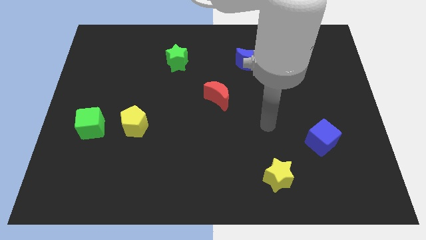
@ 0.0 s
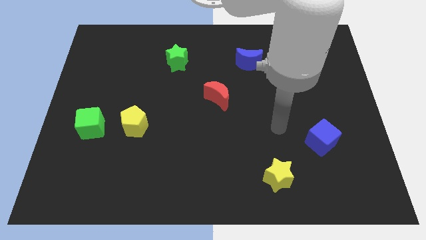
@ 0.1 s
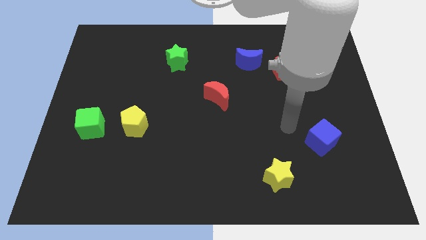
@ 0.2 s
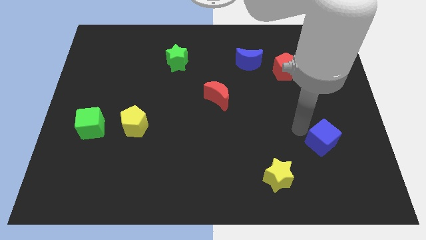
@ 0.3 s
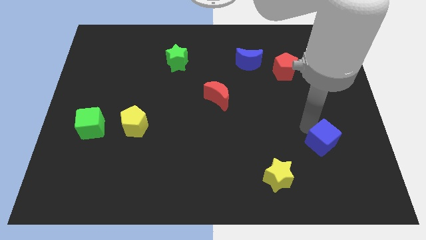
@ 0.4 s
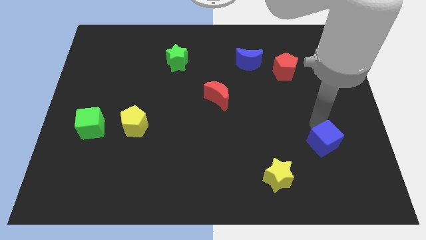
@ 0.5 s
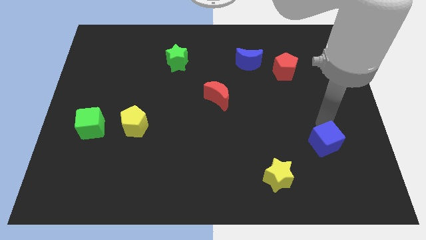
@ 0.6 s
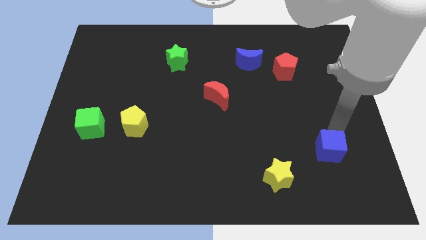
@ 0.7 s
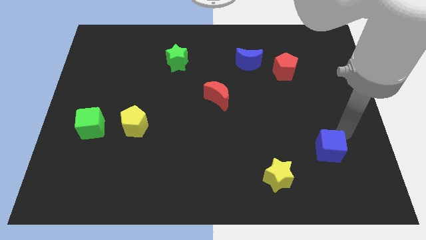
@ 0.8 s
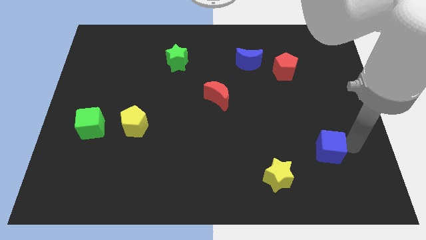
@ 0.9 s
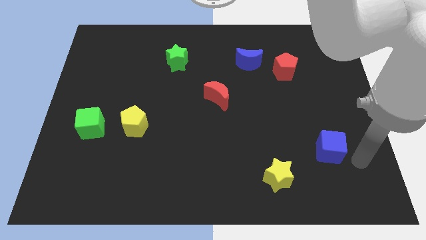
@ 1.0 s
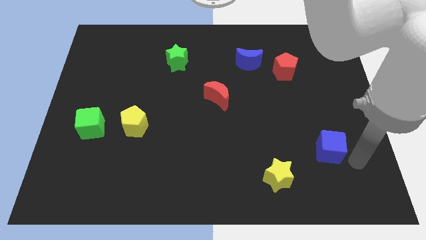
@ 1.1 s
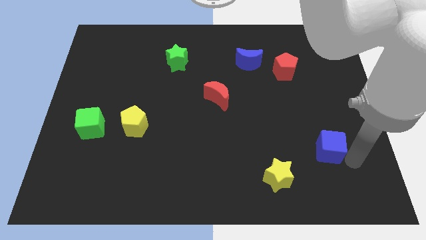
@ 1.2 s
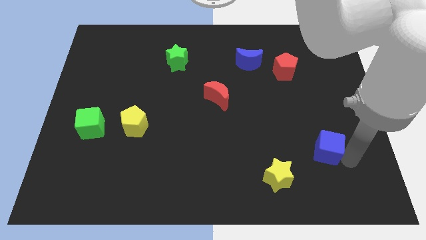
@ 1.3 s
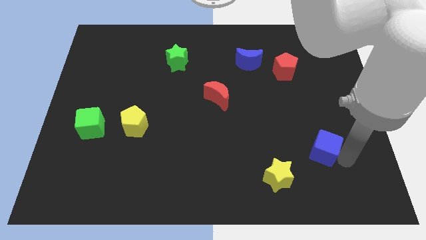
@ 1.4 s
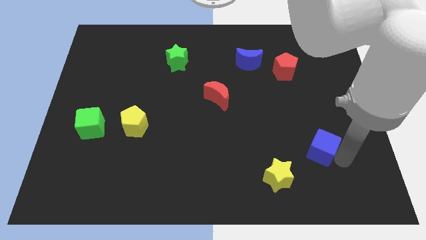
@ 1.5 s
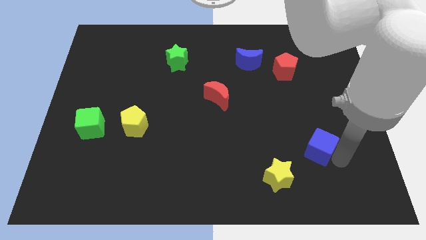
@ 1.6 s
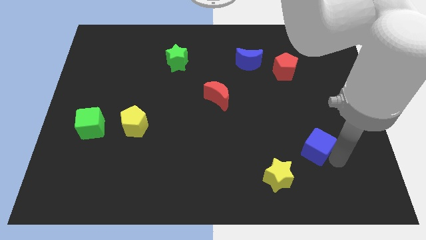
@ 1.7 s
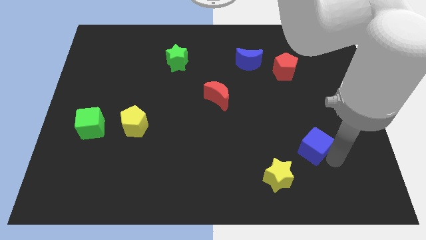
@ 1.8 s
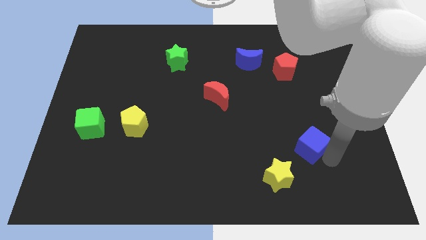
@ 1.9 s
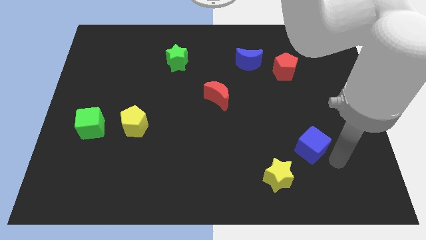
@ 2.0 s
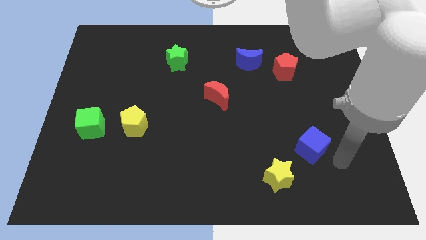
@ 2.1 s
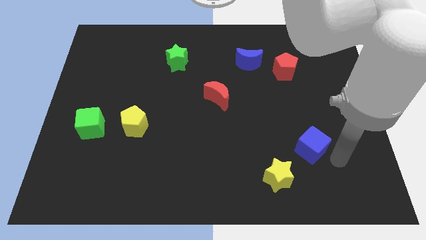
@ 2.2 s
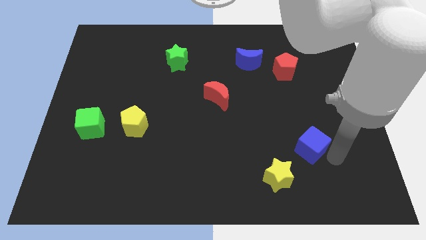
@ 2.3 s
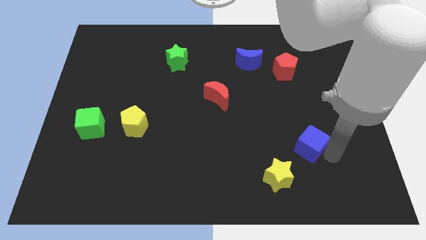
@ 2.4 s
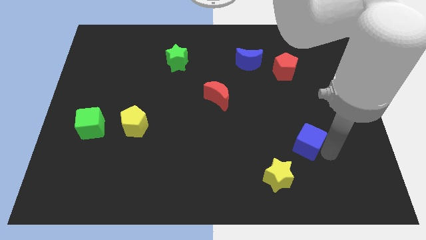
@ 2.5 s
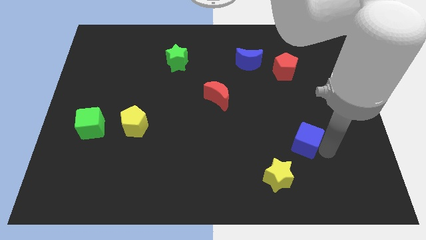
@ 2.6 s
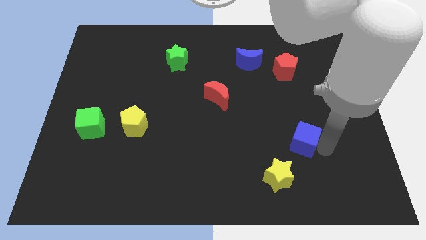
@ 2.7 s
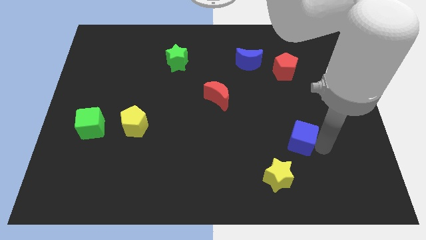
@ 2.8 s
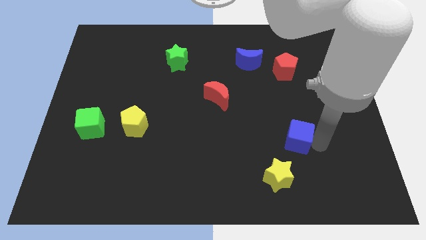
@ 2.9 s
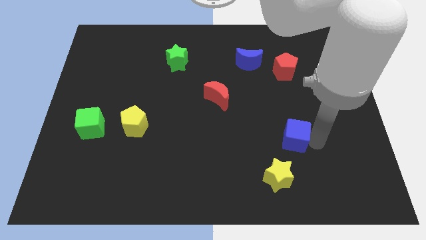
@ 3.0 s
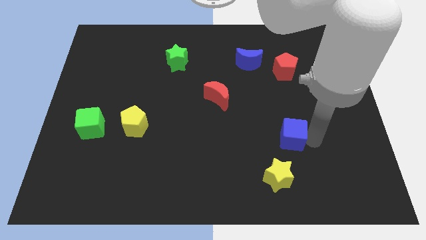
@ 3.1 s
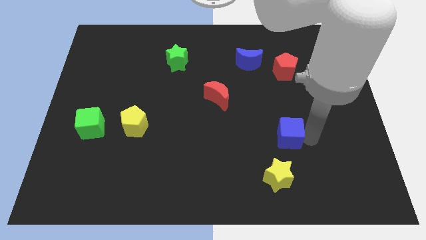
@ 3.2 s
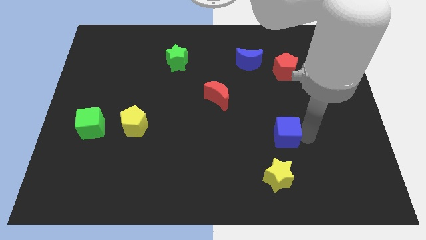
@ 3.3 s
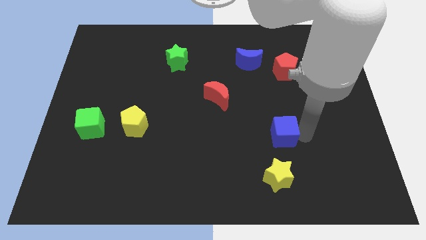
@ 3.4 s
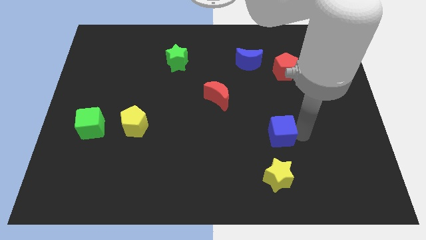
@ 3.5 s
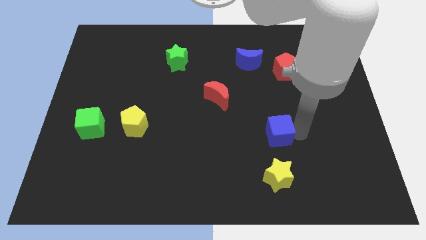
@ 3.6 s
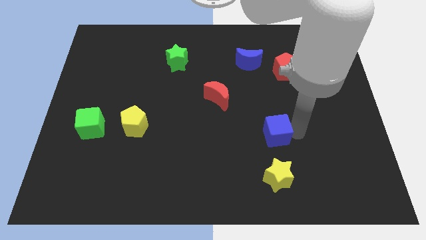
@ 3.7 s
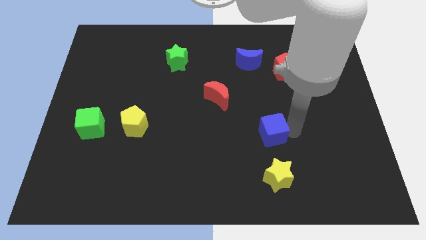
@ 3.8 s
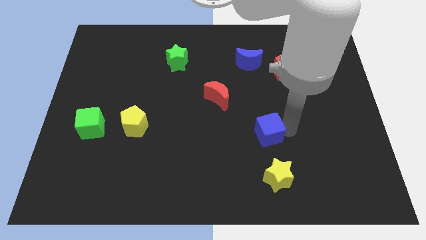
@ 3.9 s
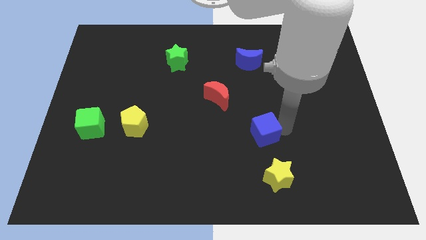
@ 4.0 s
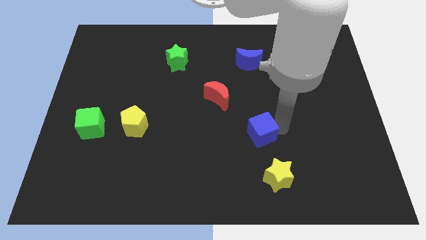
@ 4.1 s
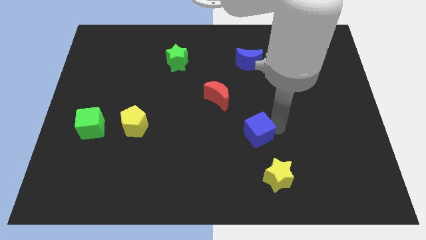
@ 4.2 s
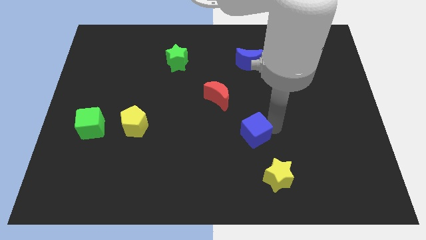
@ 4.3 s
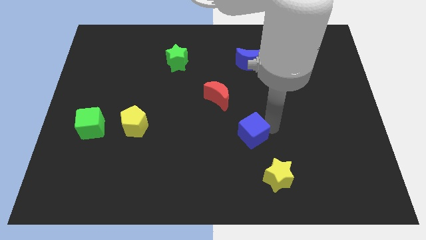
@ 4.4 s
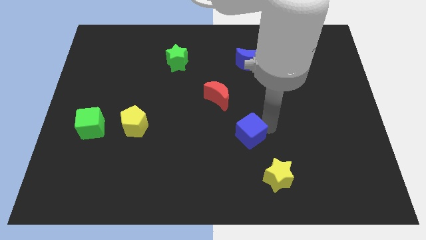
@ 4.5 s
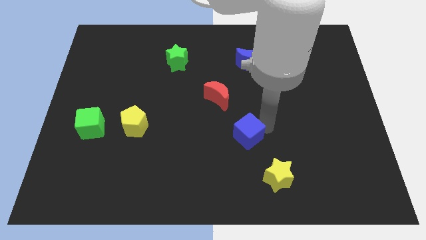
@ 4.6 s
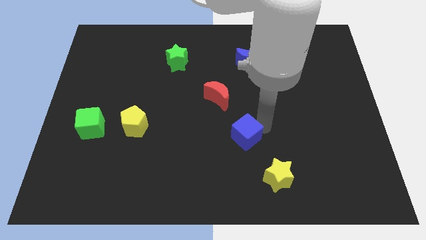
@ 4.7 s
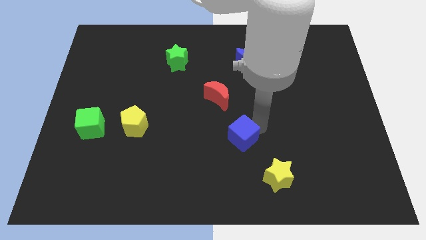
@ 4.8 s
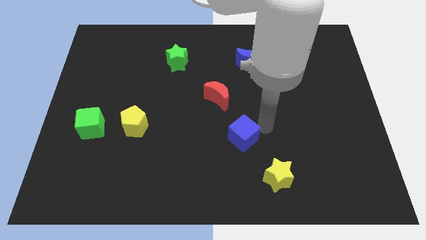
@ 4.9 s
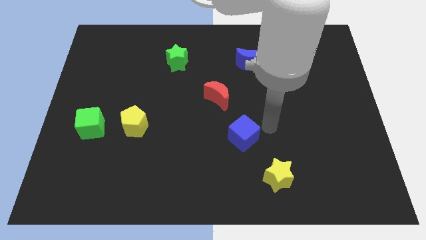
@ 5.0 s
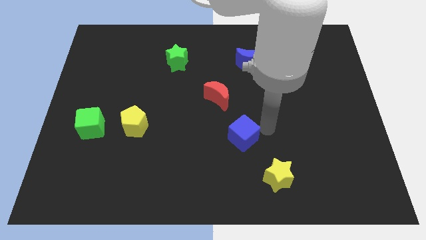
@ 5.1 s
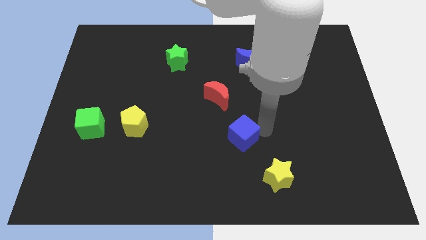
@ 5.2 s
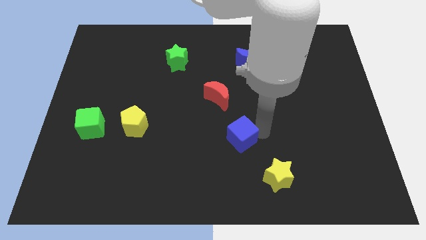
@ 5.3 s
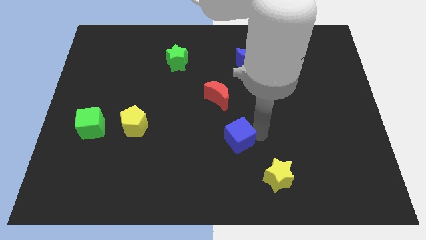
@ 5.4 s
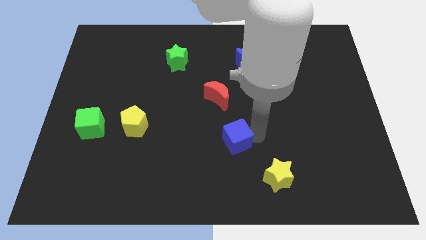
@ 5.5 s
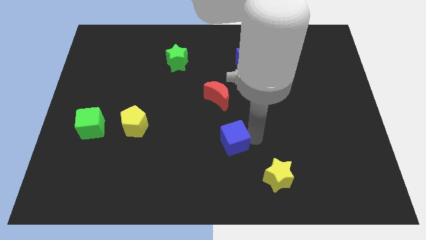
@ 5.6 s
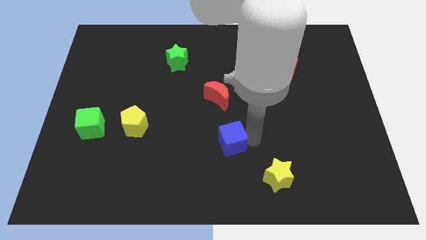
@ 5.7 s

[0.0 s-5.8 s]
push the blue cube left

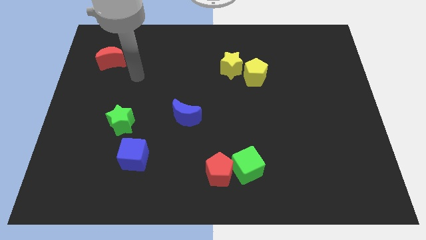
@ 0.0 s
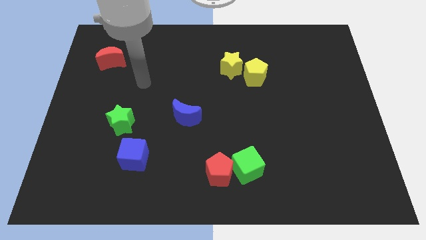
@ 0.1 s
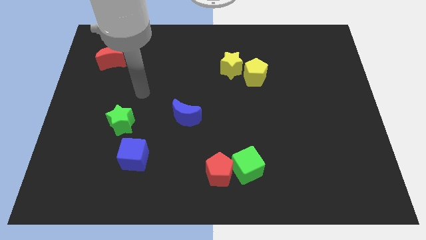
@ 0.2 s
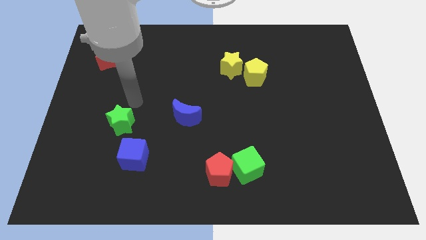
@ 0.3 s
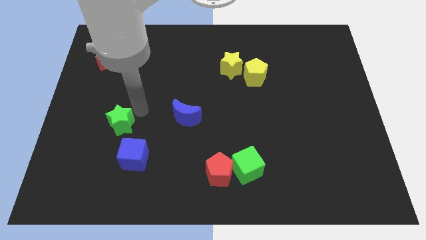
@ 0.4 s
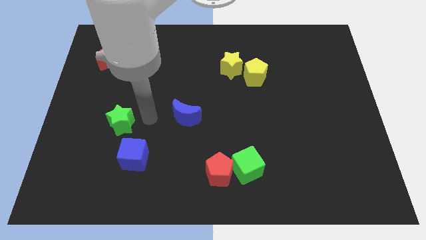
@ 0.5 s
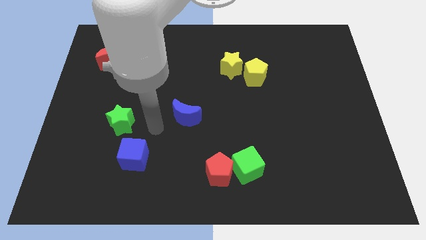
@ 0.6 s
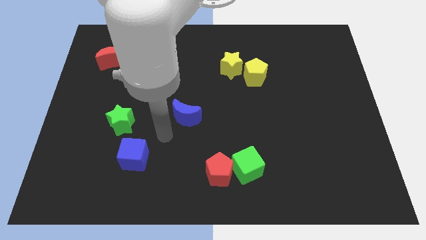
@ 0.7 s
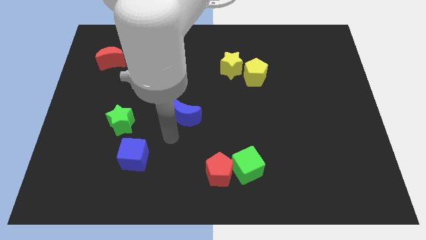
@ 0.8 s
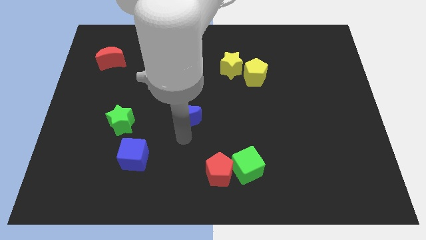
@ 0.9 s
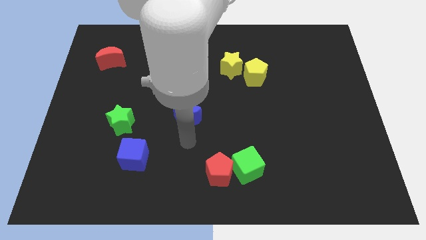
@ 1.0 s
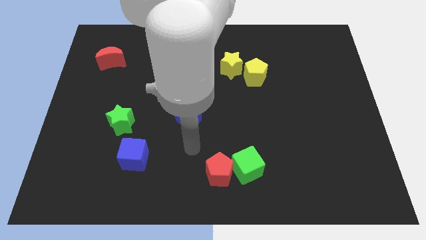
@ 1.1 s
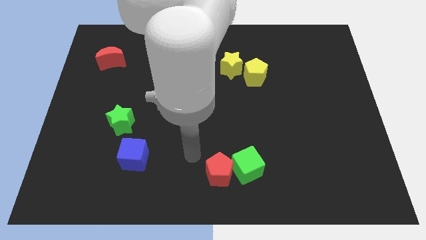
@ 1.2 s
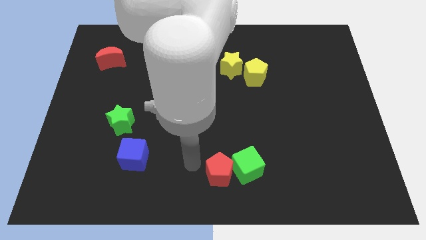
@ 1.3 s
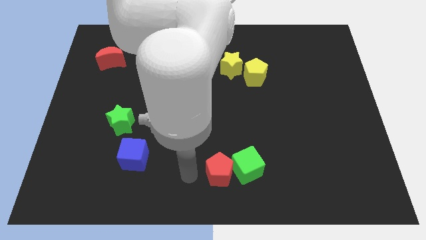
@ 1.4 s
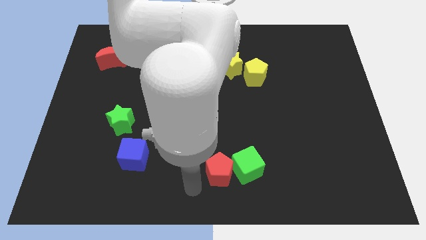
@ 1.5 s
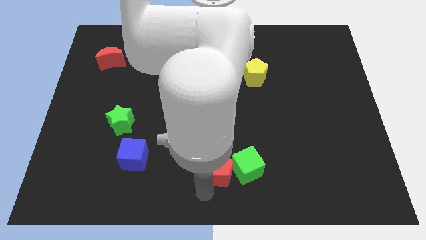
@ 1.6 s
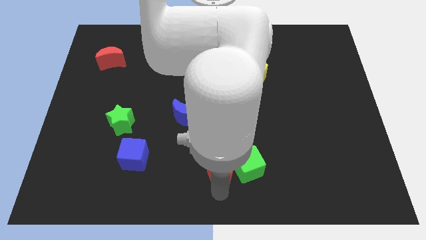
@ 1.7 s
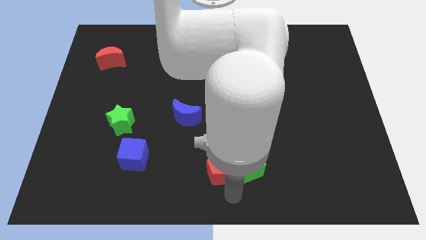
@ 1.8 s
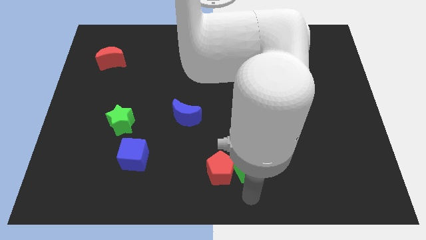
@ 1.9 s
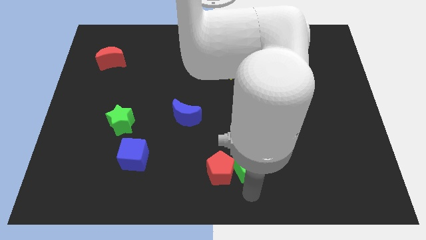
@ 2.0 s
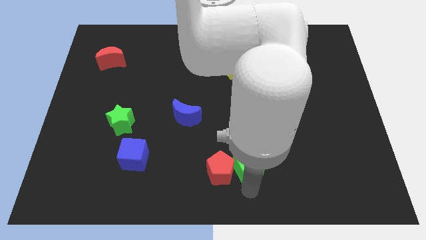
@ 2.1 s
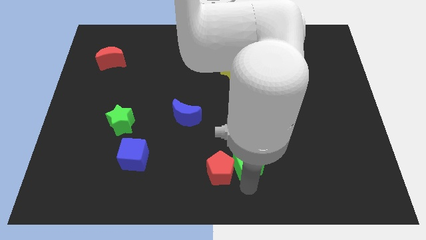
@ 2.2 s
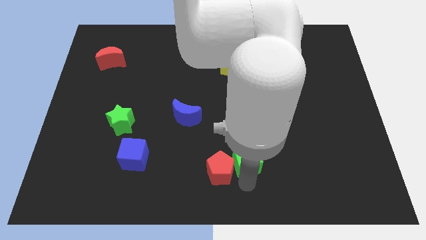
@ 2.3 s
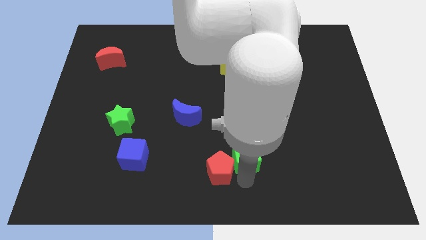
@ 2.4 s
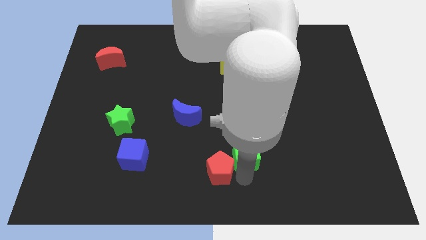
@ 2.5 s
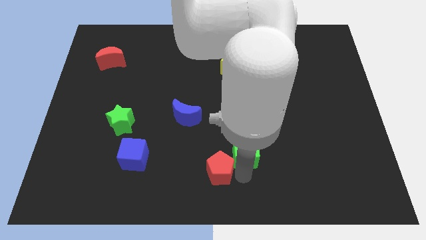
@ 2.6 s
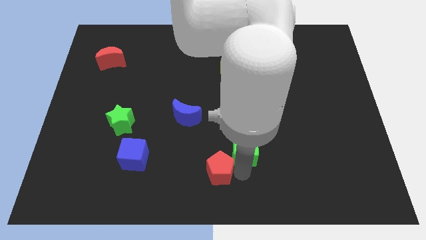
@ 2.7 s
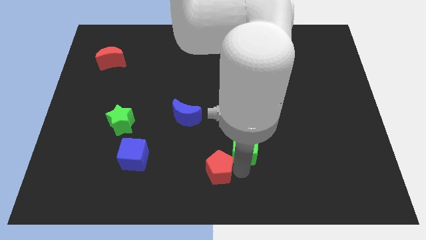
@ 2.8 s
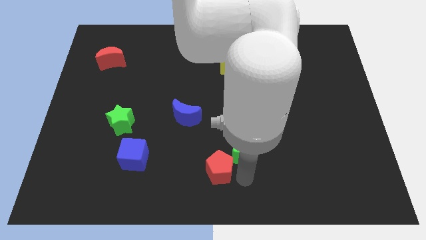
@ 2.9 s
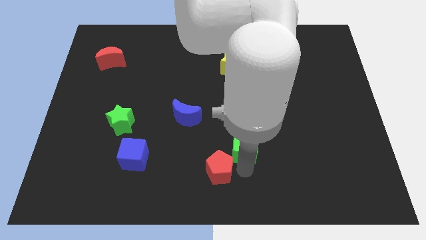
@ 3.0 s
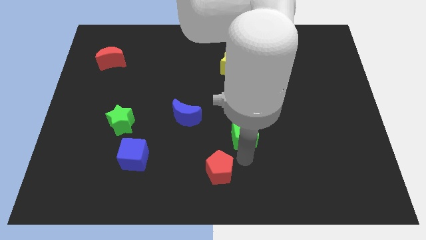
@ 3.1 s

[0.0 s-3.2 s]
push the green cube slightly upwards
